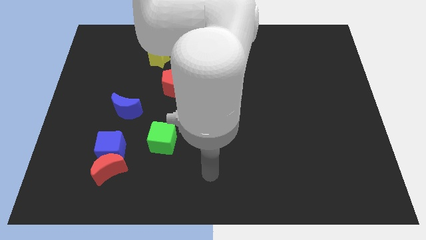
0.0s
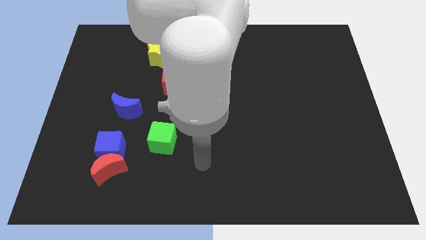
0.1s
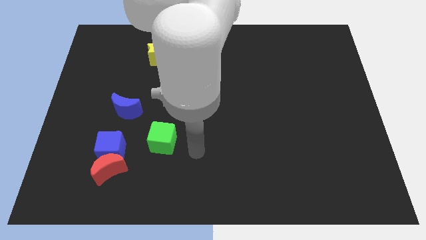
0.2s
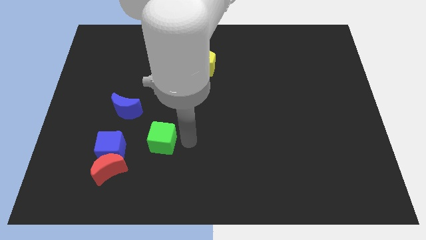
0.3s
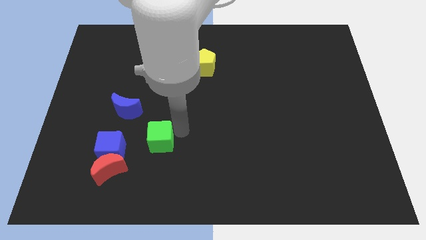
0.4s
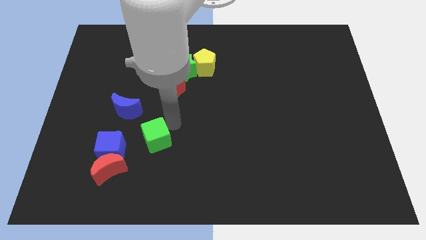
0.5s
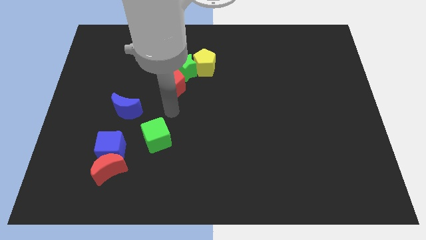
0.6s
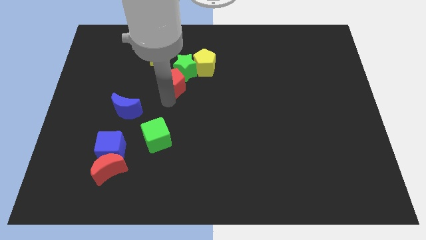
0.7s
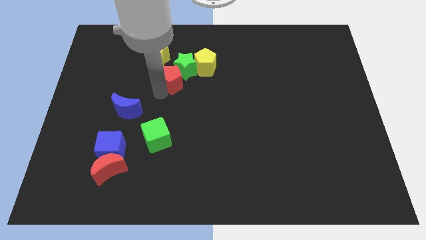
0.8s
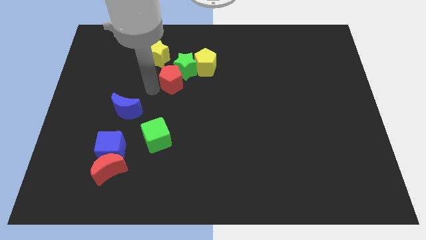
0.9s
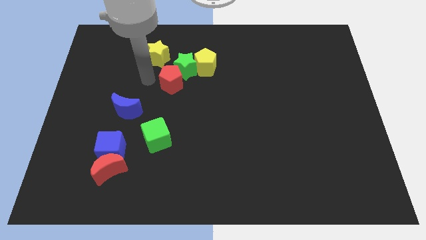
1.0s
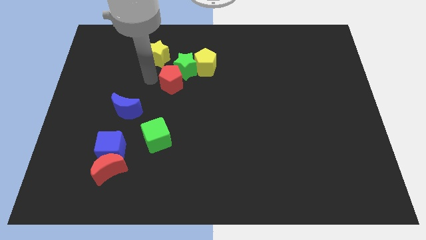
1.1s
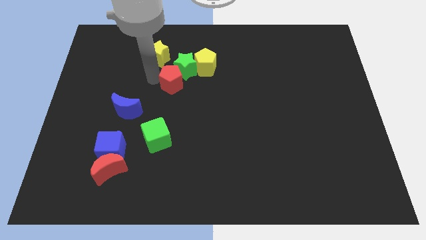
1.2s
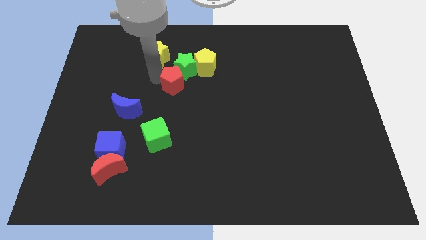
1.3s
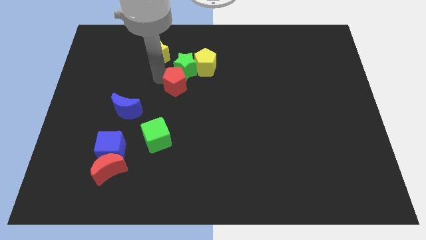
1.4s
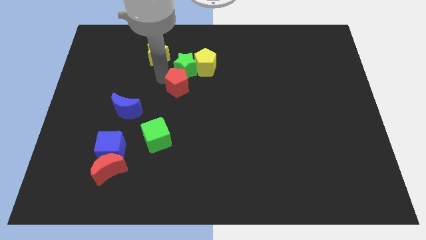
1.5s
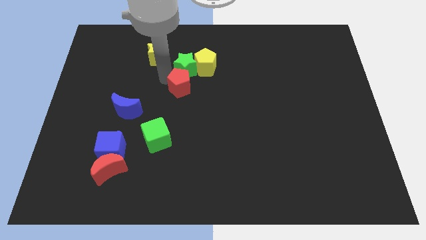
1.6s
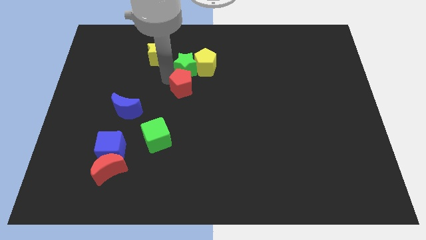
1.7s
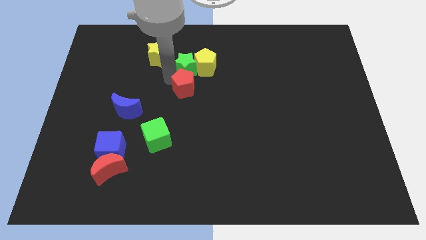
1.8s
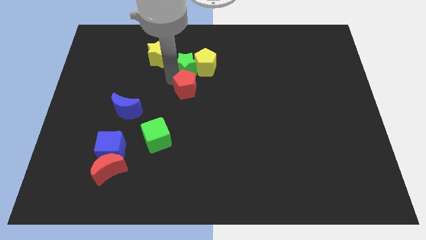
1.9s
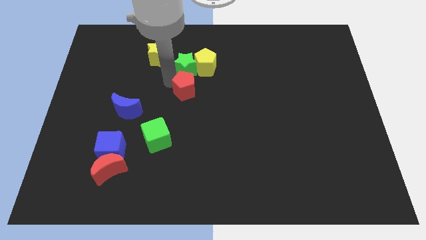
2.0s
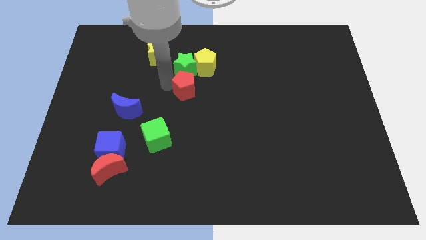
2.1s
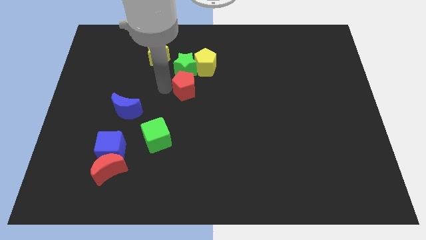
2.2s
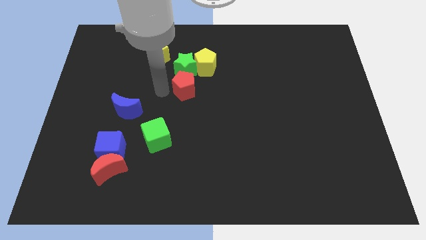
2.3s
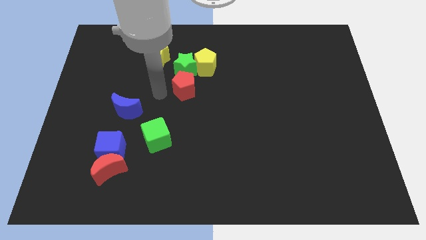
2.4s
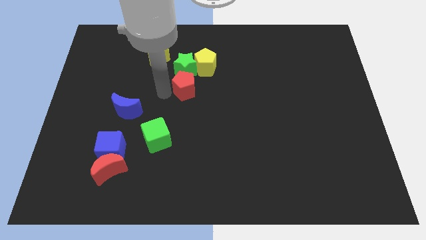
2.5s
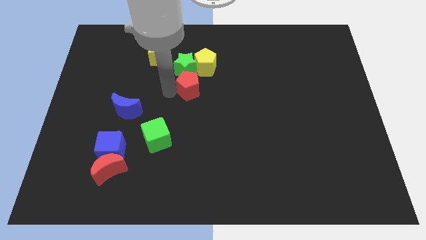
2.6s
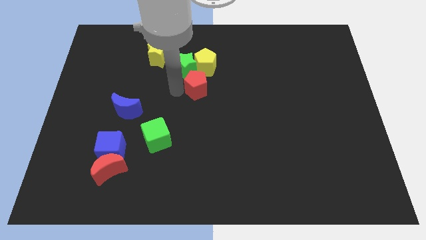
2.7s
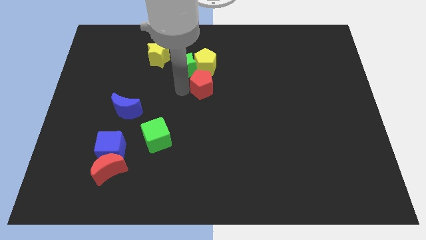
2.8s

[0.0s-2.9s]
slightly slide the red pentagon to the right

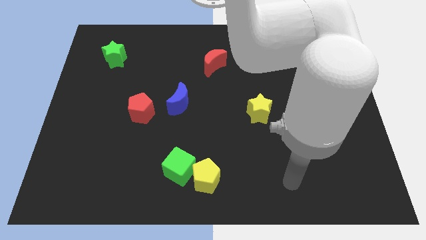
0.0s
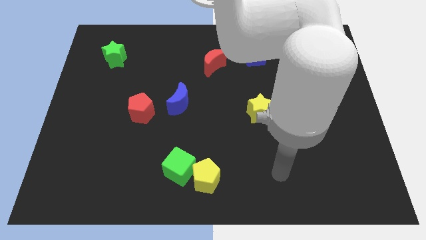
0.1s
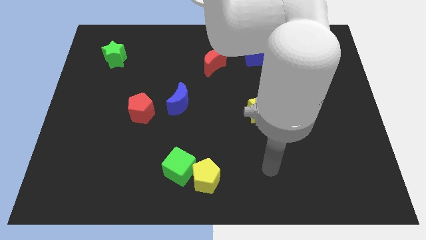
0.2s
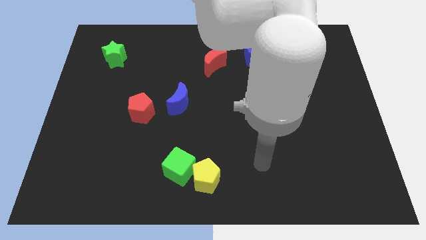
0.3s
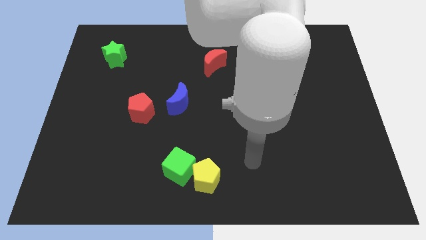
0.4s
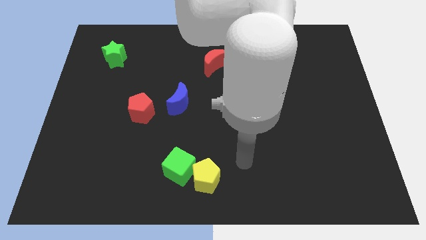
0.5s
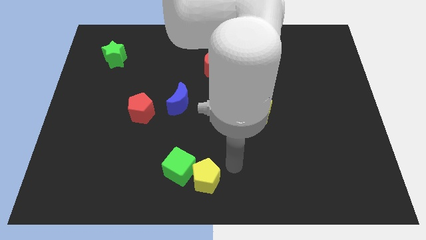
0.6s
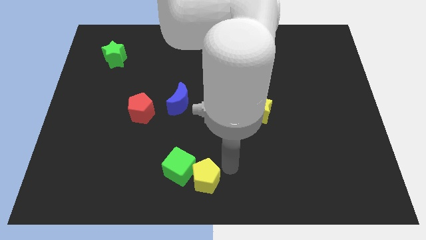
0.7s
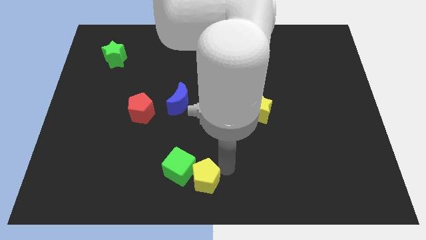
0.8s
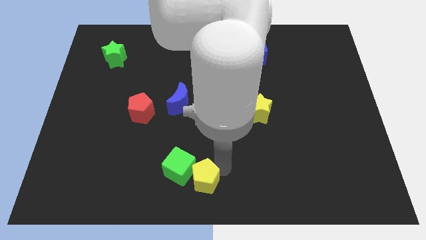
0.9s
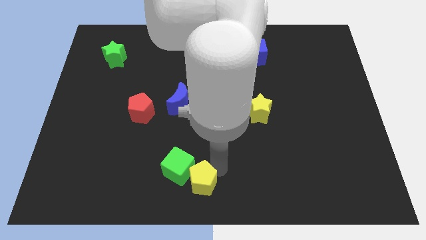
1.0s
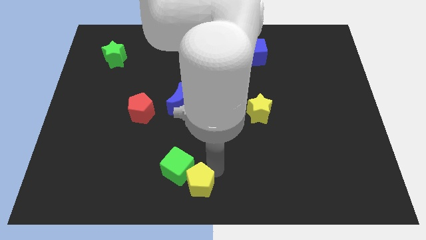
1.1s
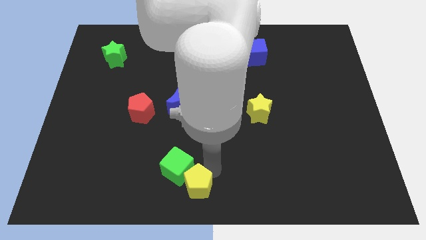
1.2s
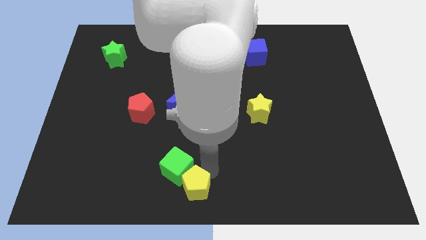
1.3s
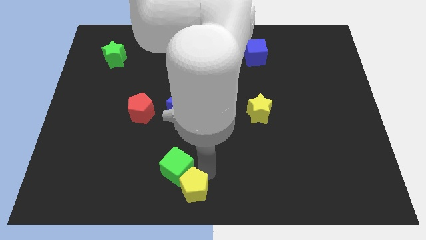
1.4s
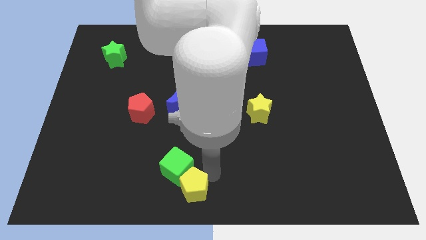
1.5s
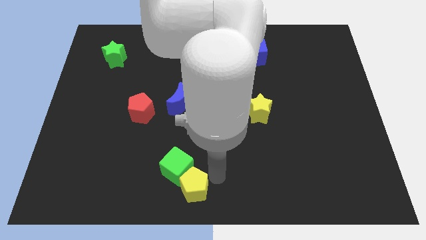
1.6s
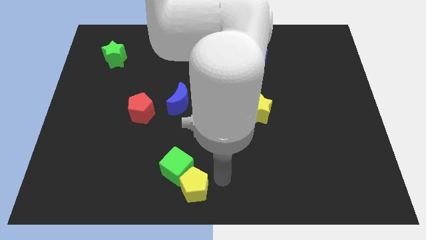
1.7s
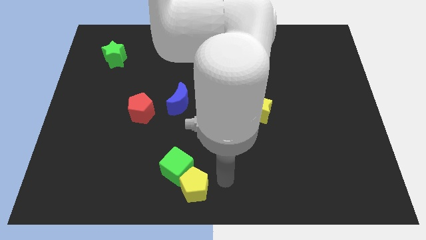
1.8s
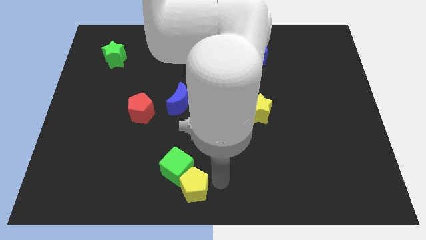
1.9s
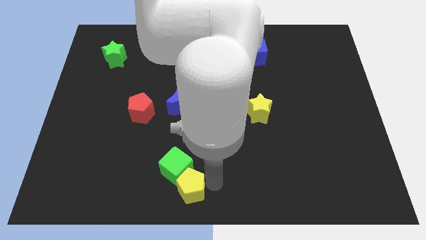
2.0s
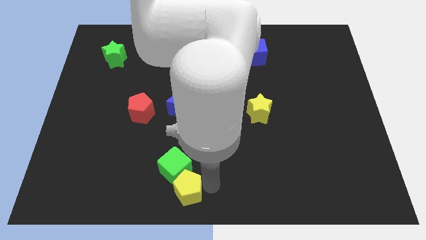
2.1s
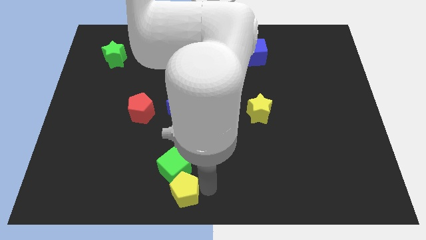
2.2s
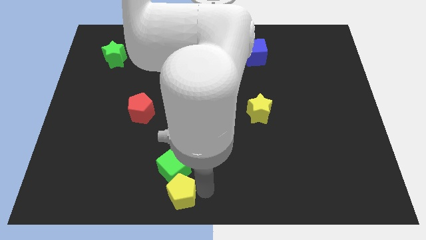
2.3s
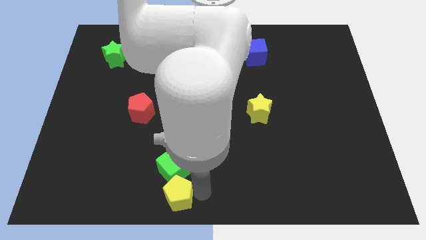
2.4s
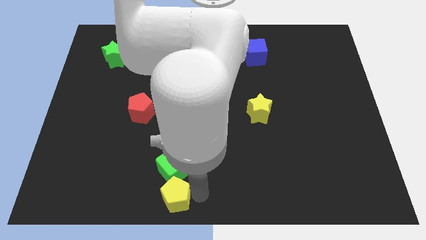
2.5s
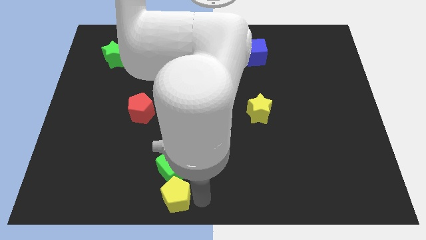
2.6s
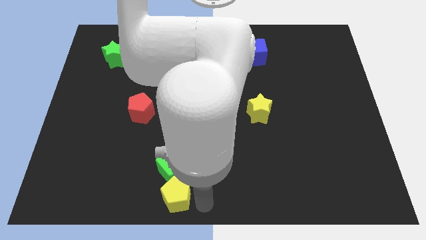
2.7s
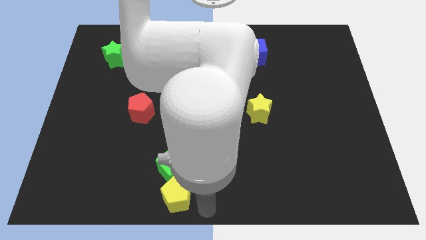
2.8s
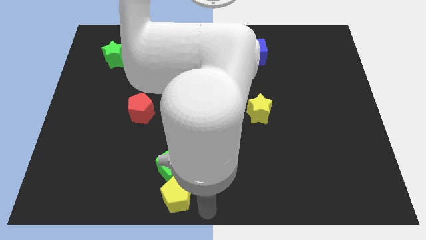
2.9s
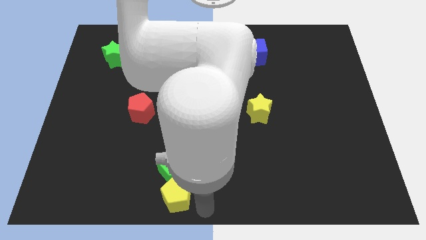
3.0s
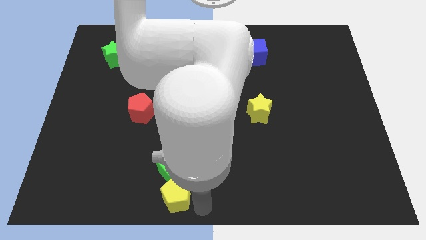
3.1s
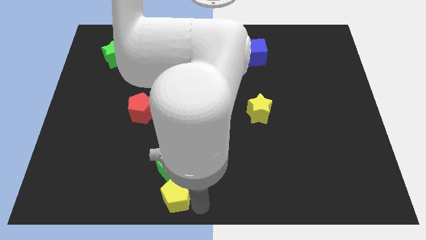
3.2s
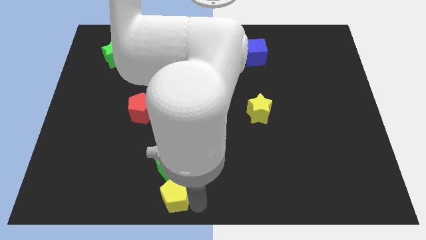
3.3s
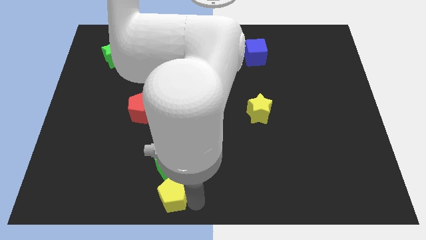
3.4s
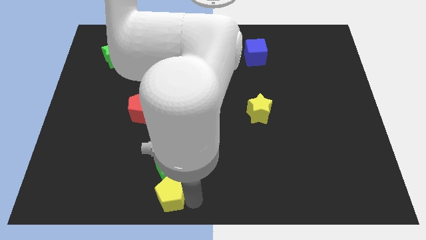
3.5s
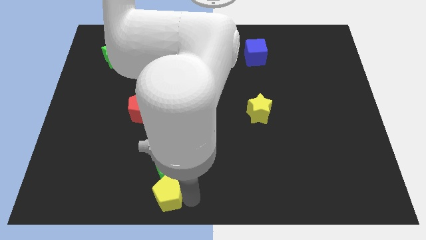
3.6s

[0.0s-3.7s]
slightly slide the yellow pentagon left

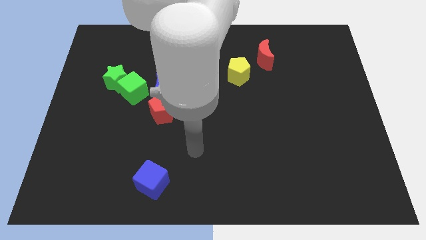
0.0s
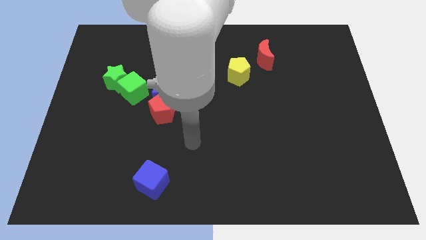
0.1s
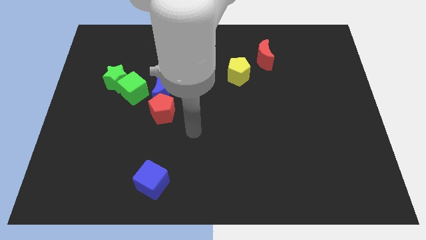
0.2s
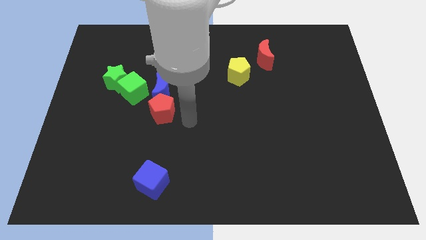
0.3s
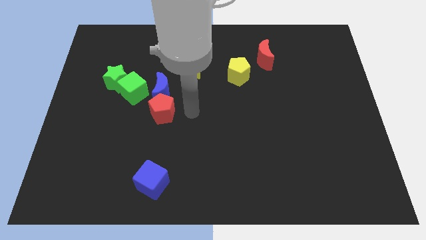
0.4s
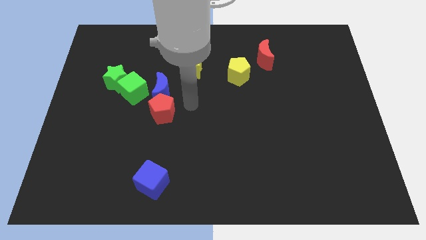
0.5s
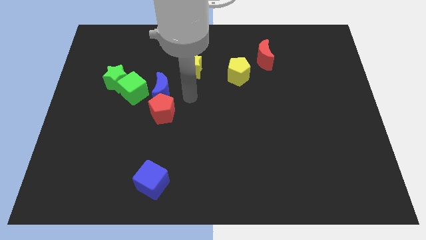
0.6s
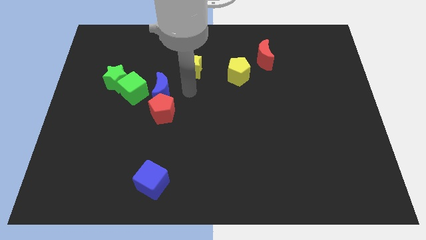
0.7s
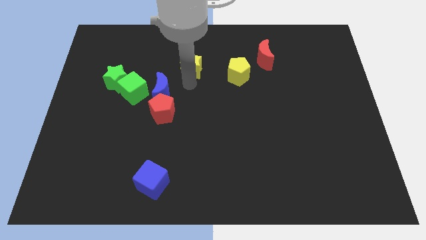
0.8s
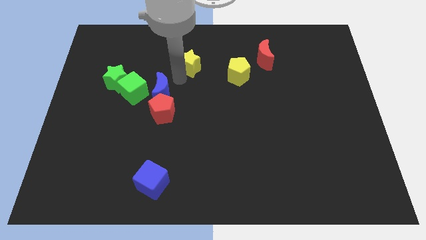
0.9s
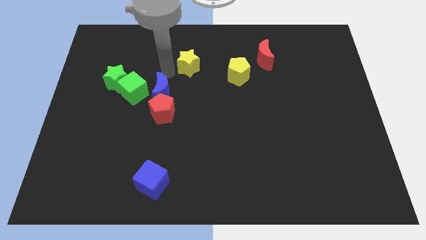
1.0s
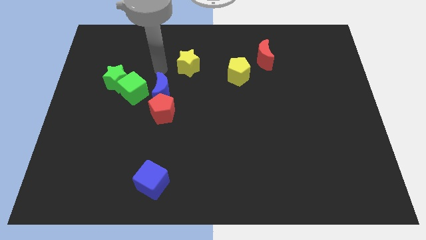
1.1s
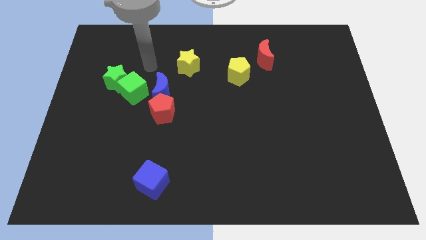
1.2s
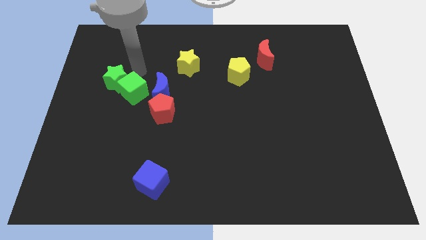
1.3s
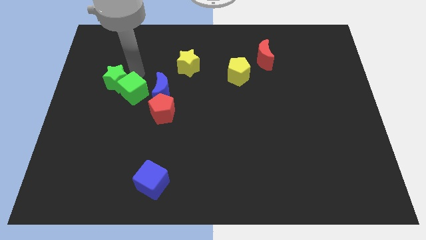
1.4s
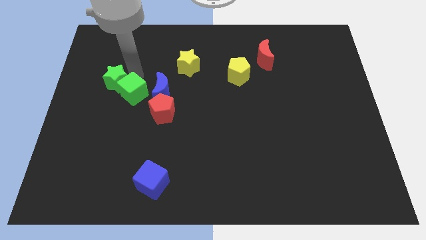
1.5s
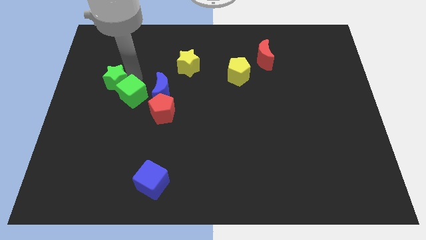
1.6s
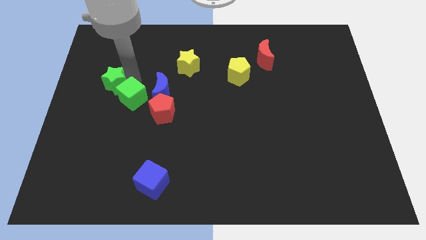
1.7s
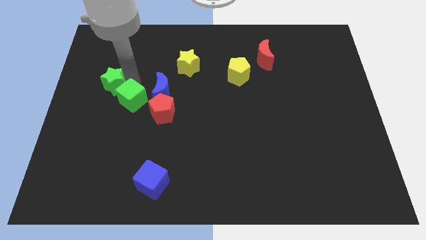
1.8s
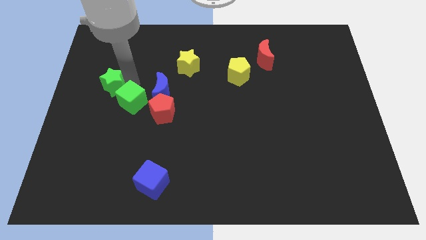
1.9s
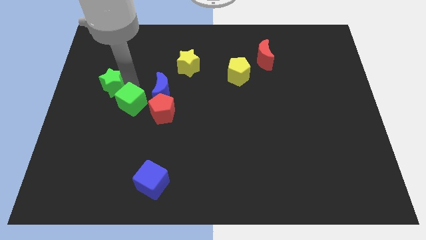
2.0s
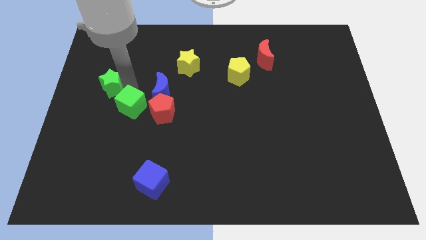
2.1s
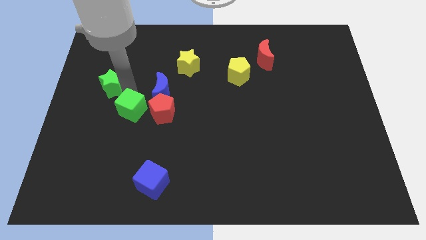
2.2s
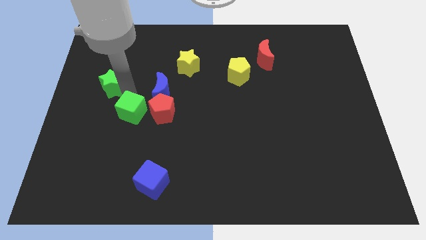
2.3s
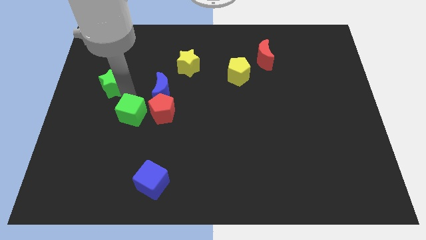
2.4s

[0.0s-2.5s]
slide the green cube downwards a bit

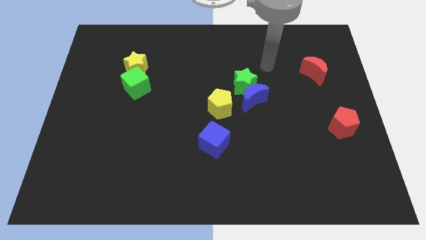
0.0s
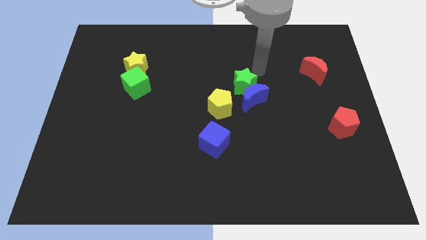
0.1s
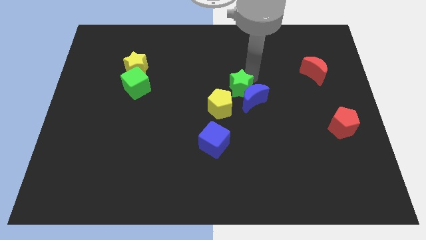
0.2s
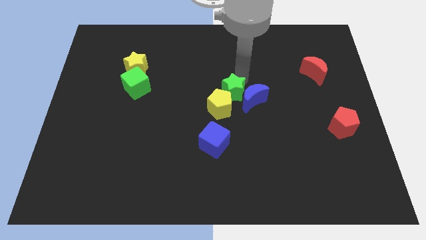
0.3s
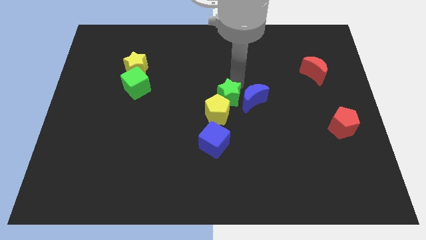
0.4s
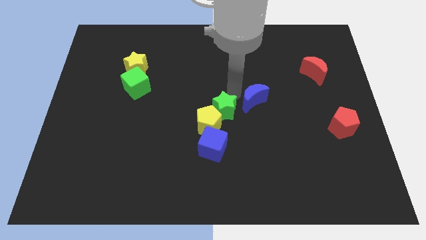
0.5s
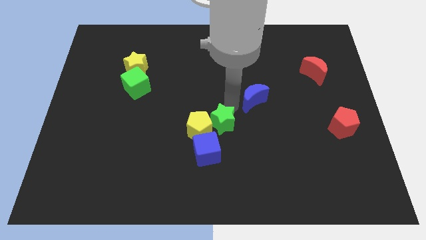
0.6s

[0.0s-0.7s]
slightly slide the yellow pentagon down and then left
